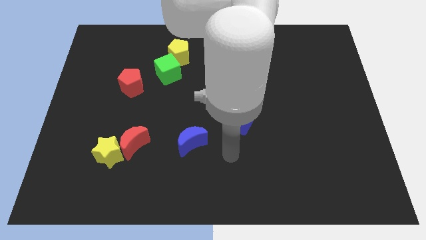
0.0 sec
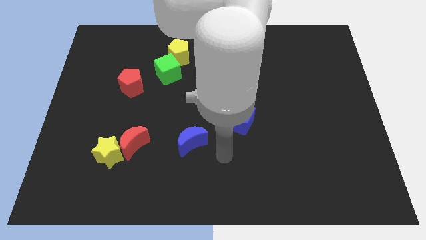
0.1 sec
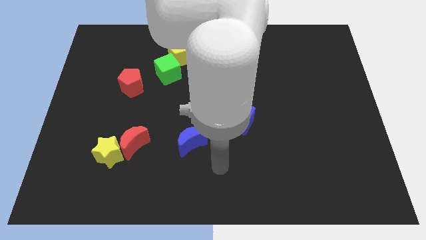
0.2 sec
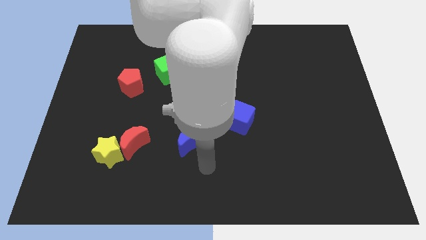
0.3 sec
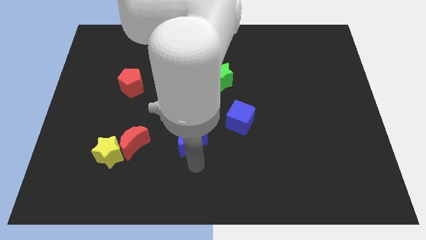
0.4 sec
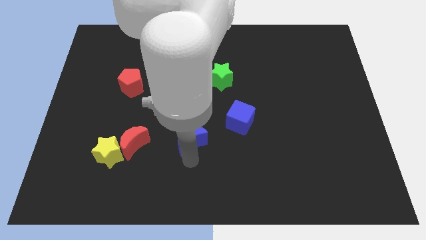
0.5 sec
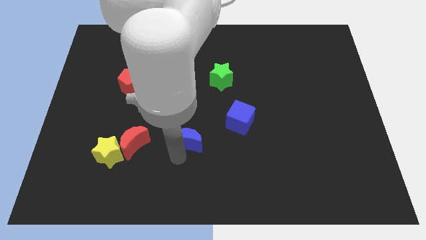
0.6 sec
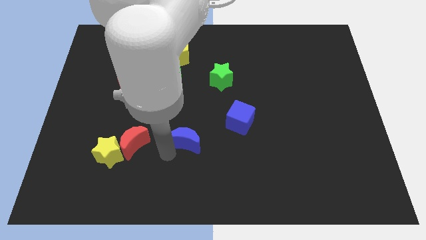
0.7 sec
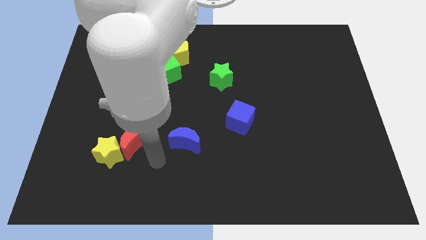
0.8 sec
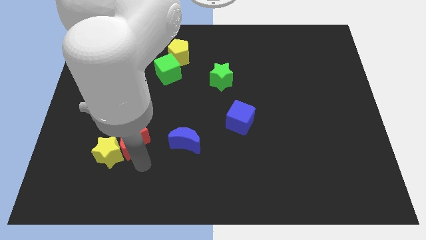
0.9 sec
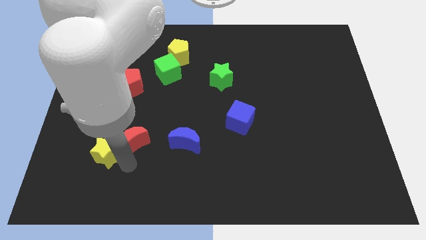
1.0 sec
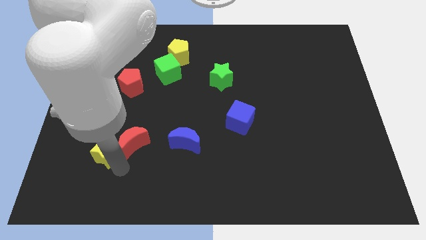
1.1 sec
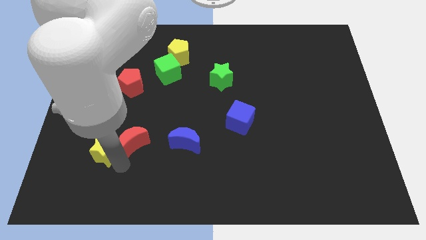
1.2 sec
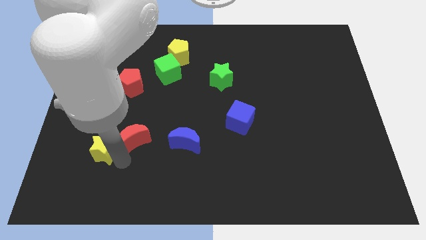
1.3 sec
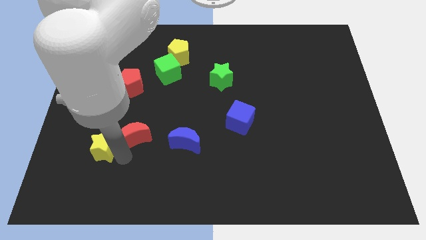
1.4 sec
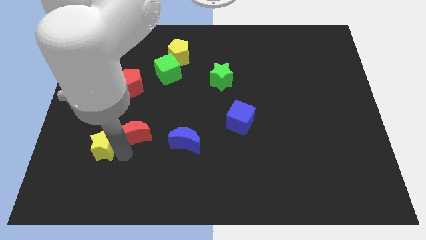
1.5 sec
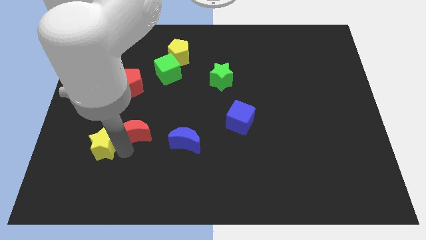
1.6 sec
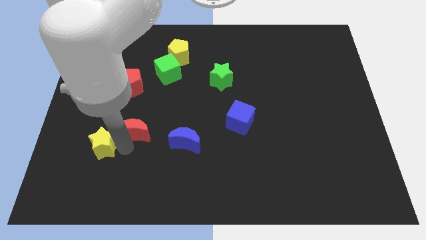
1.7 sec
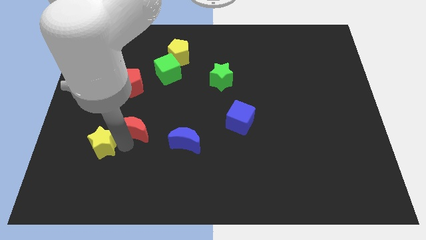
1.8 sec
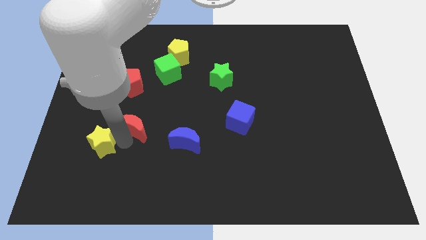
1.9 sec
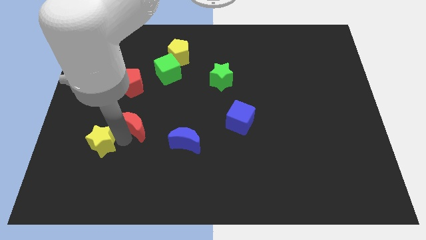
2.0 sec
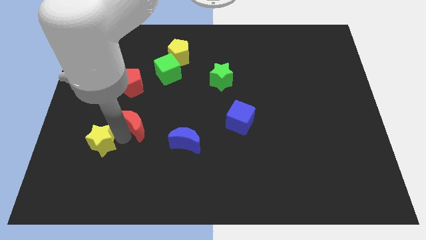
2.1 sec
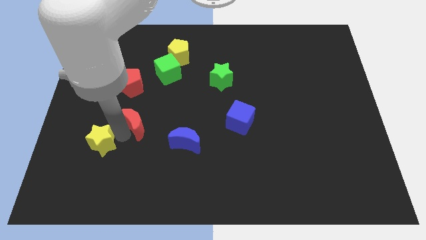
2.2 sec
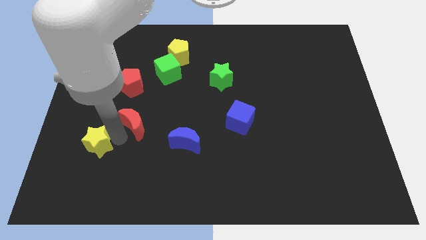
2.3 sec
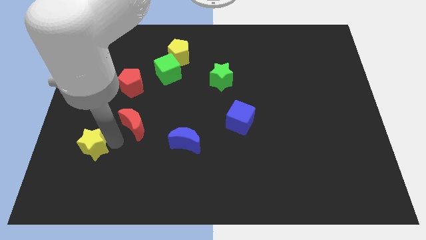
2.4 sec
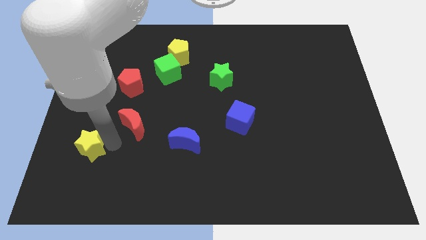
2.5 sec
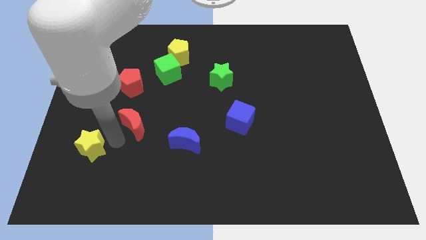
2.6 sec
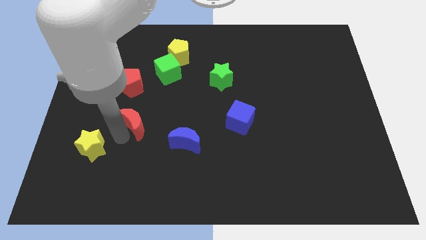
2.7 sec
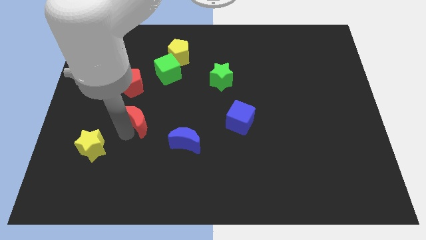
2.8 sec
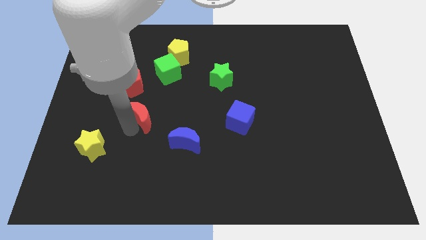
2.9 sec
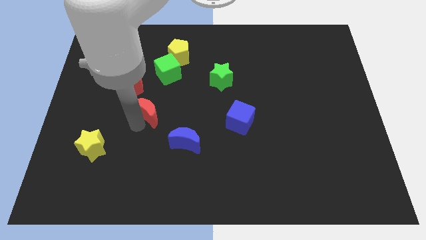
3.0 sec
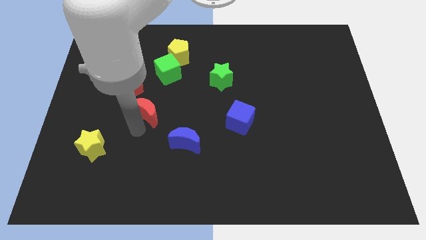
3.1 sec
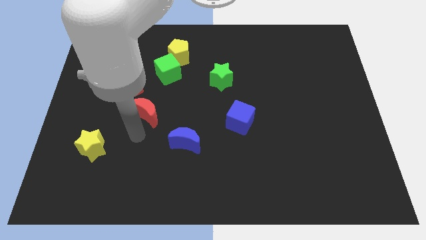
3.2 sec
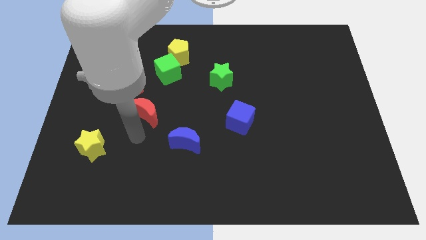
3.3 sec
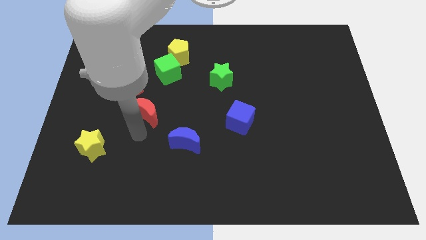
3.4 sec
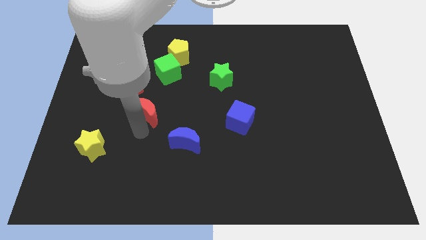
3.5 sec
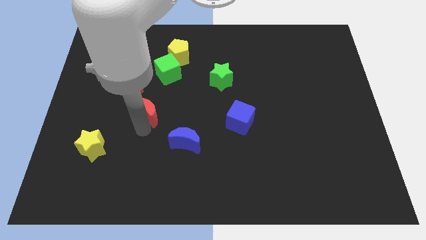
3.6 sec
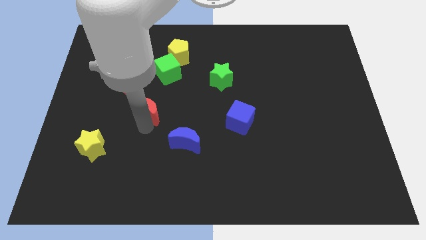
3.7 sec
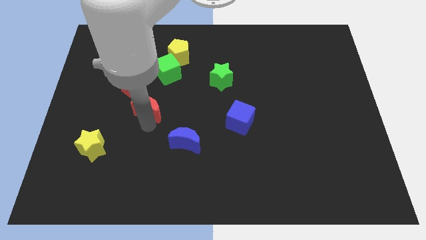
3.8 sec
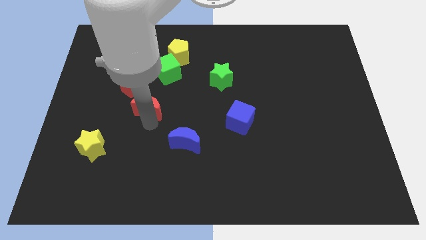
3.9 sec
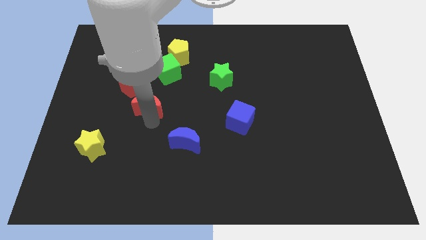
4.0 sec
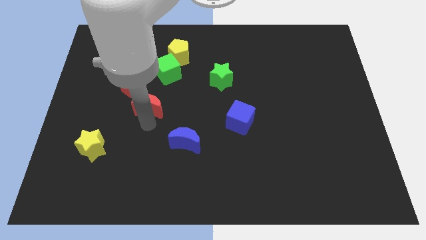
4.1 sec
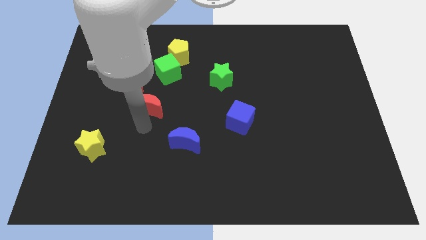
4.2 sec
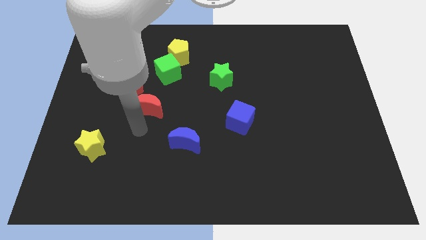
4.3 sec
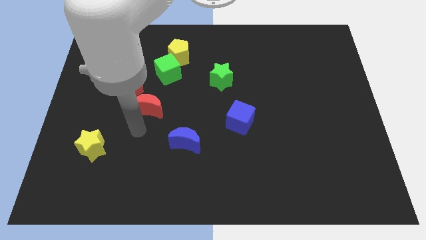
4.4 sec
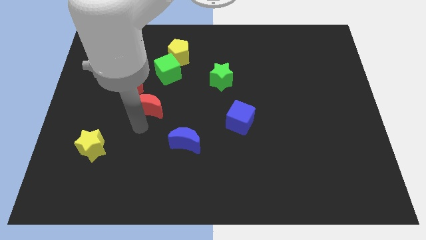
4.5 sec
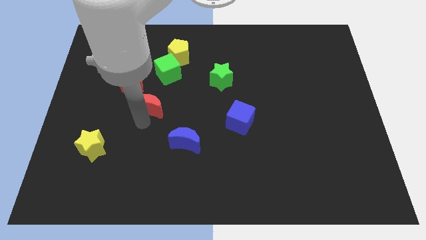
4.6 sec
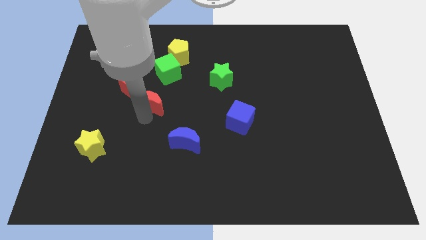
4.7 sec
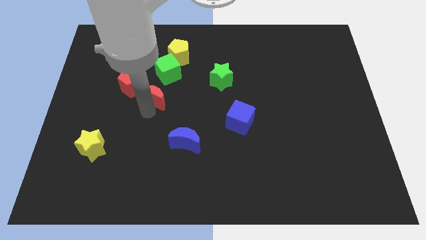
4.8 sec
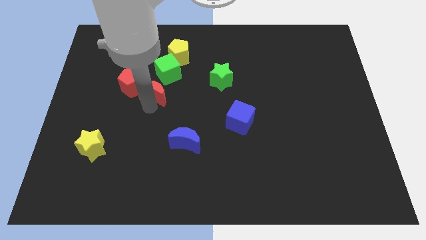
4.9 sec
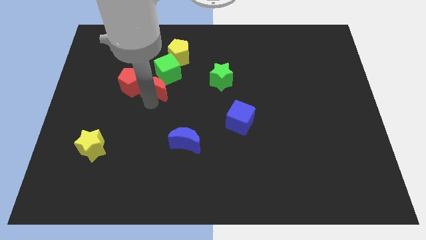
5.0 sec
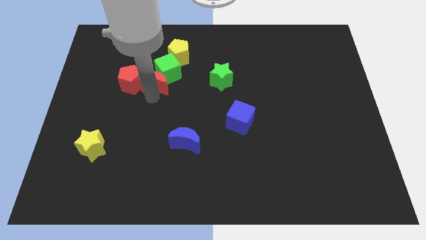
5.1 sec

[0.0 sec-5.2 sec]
push the red moon close to the green cube

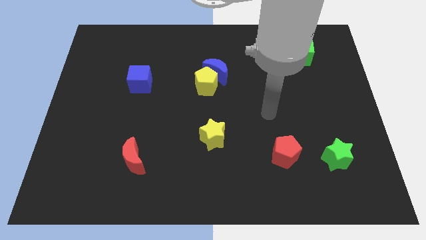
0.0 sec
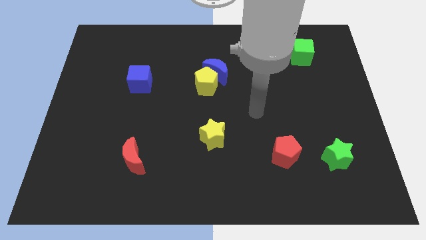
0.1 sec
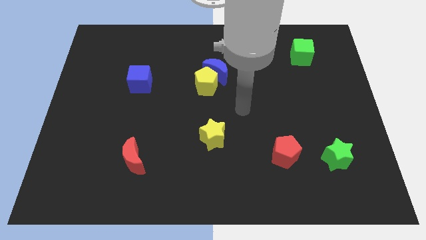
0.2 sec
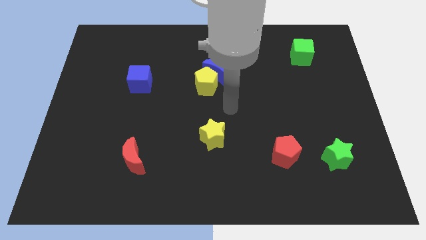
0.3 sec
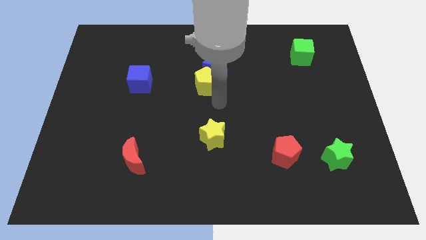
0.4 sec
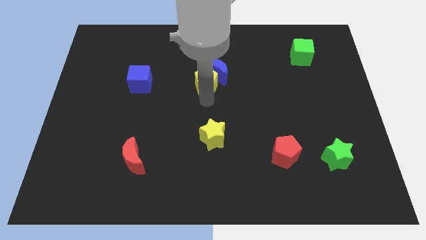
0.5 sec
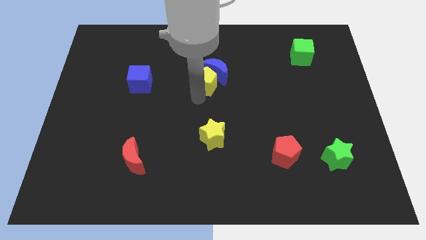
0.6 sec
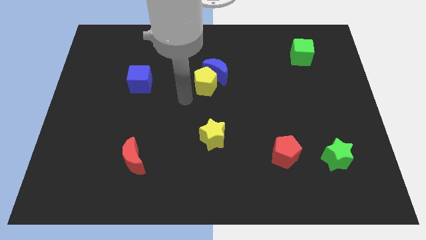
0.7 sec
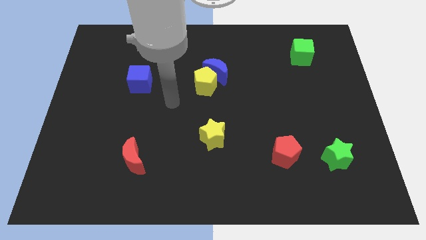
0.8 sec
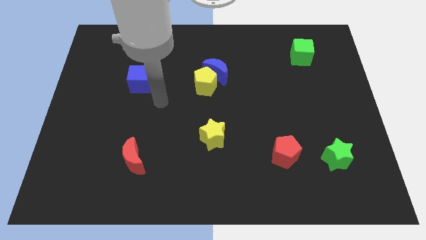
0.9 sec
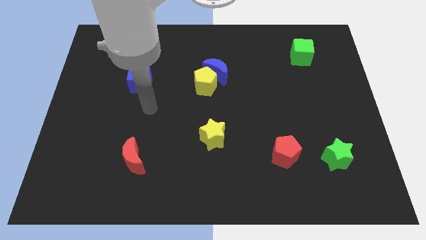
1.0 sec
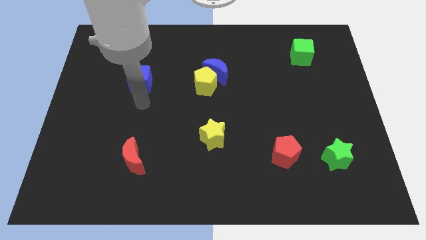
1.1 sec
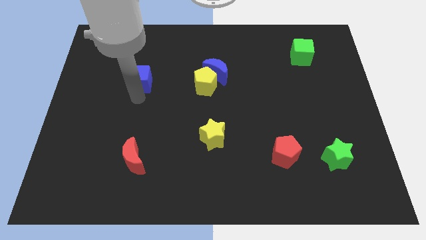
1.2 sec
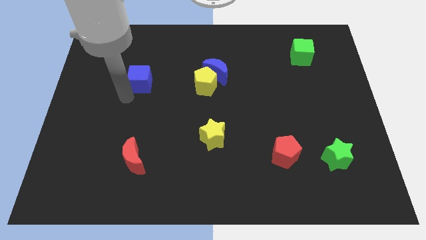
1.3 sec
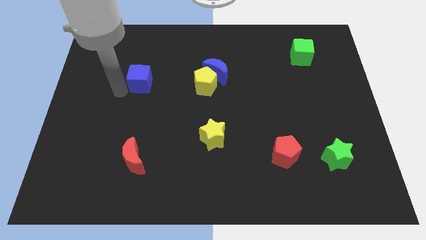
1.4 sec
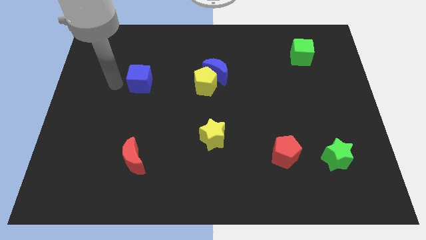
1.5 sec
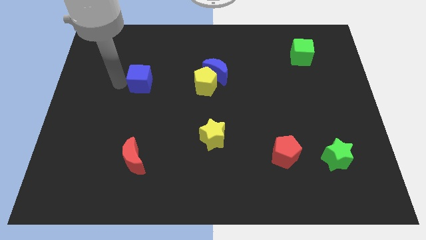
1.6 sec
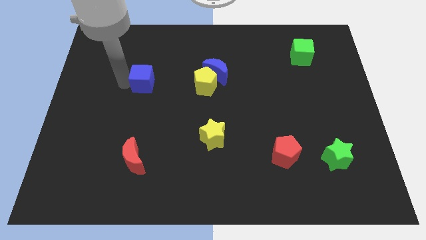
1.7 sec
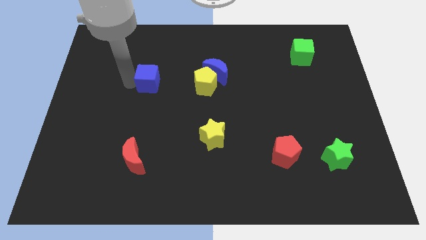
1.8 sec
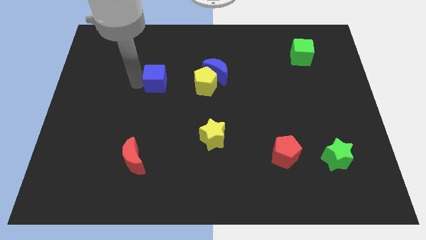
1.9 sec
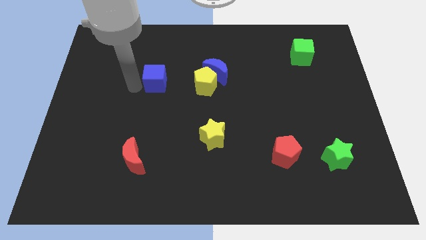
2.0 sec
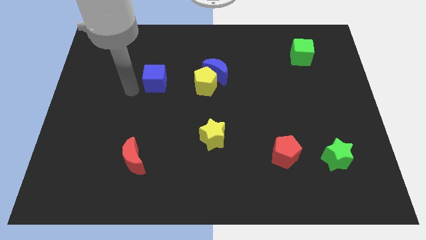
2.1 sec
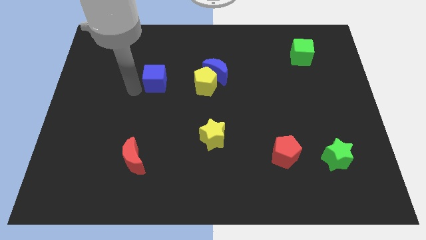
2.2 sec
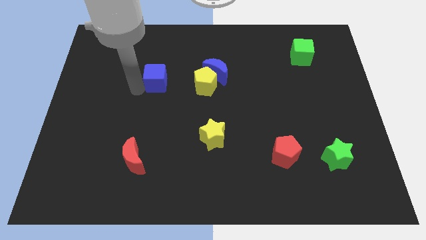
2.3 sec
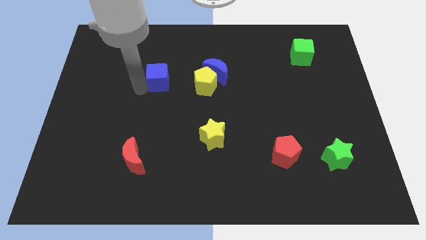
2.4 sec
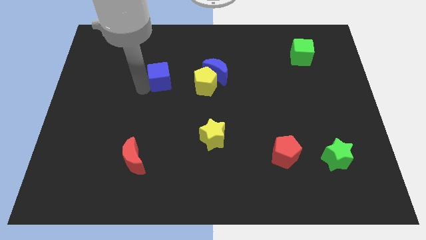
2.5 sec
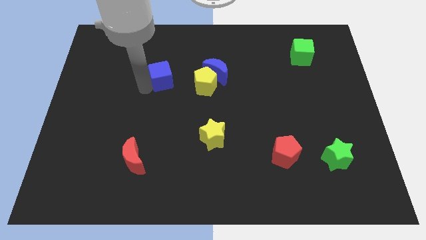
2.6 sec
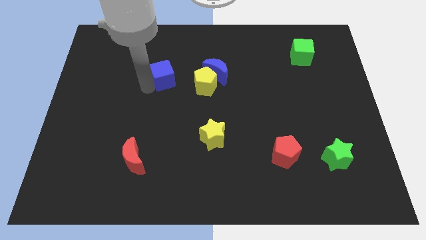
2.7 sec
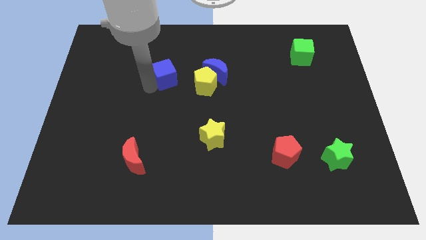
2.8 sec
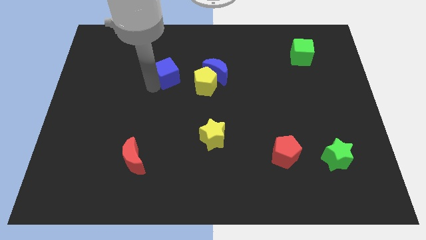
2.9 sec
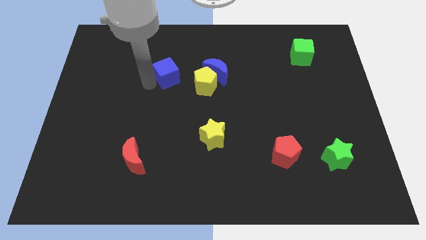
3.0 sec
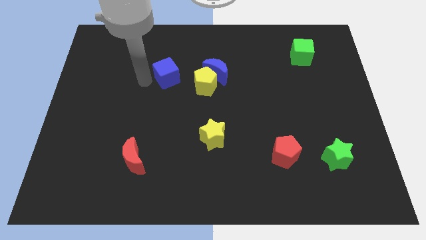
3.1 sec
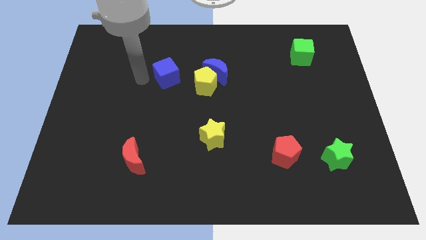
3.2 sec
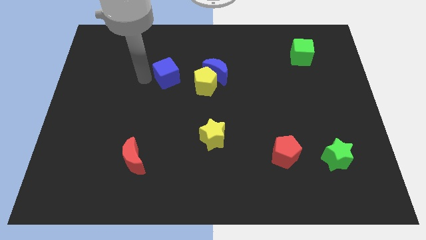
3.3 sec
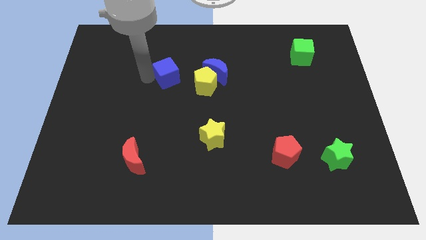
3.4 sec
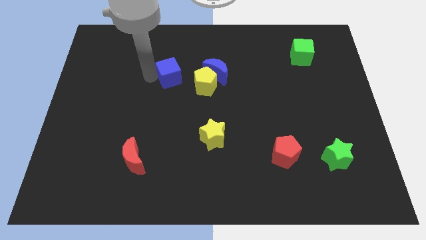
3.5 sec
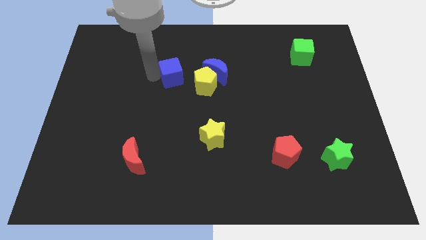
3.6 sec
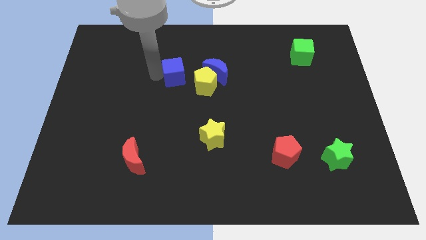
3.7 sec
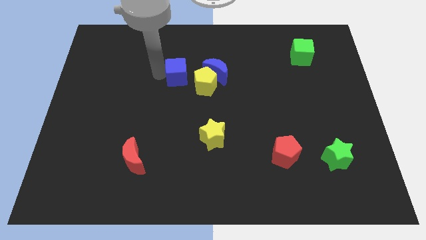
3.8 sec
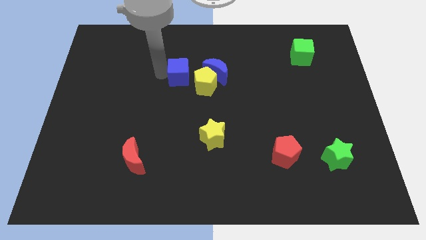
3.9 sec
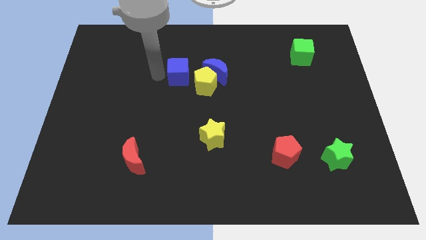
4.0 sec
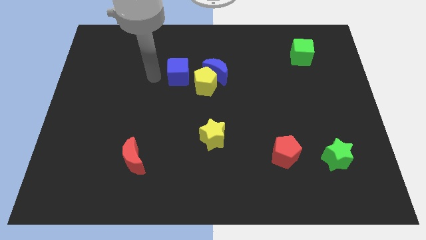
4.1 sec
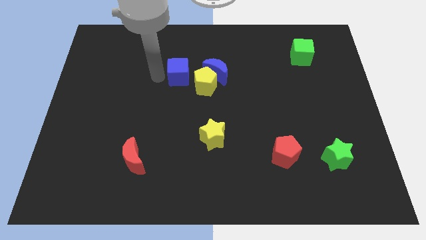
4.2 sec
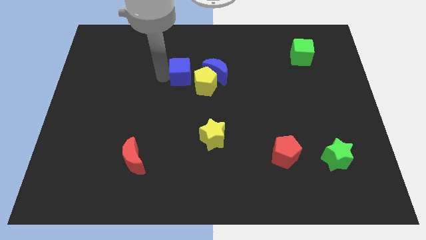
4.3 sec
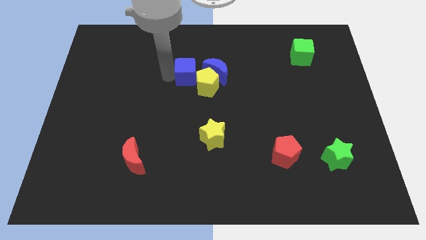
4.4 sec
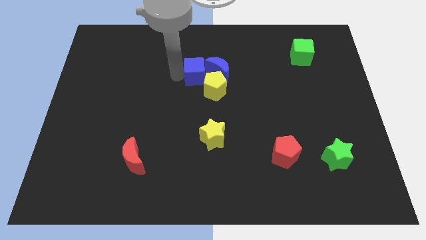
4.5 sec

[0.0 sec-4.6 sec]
slide the blue cube next to the blue moon
